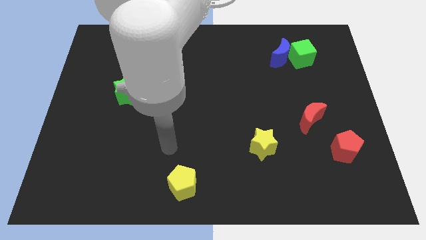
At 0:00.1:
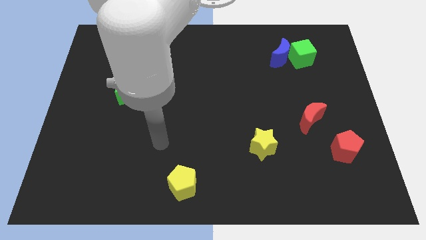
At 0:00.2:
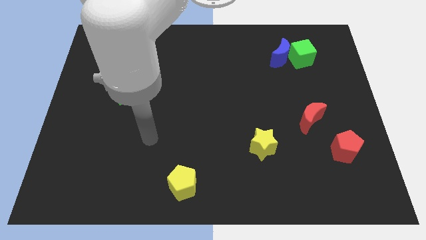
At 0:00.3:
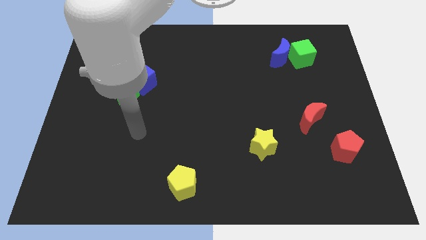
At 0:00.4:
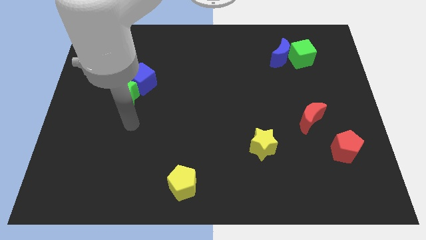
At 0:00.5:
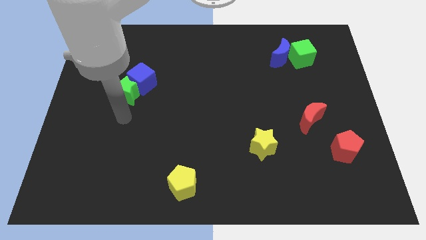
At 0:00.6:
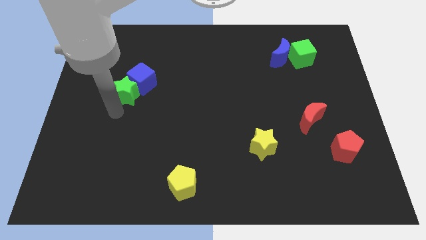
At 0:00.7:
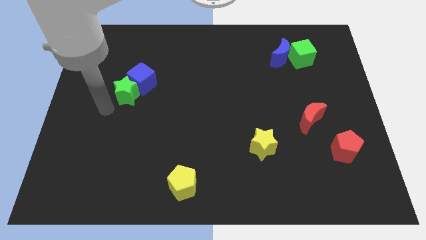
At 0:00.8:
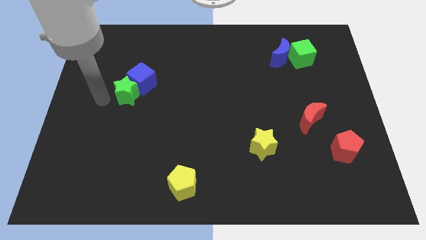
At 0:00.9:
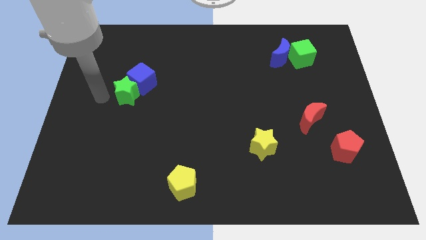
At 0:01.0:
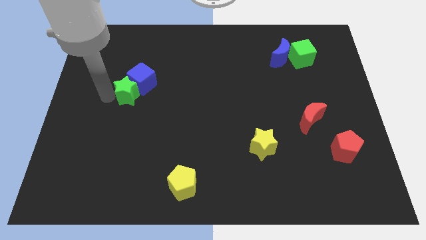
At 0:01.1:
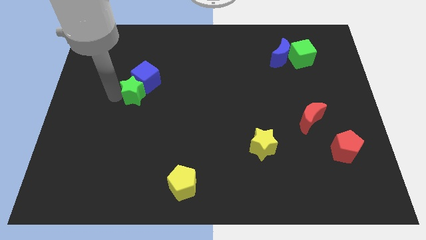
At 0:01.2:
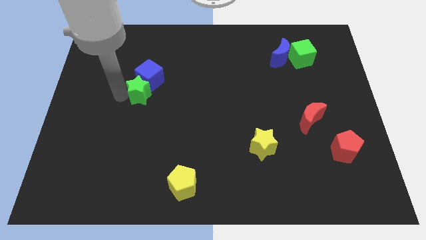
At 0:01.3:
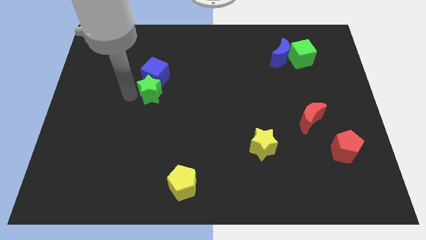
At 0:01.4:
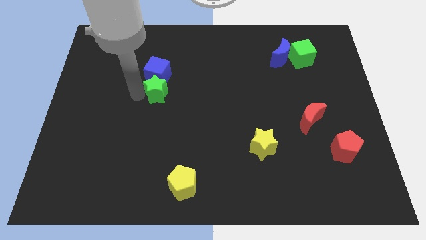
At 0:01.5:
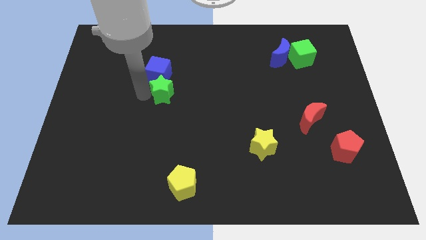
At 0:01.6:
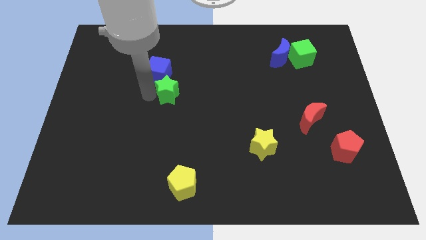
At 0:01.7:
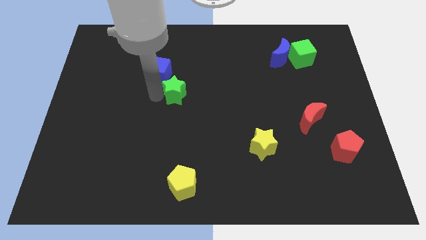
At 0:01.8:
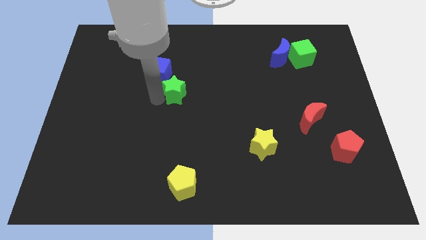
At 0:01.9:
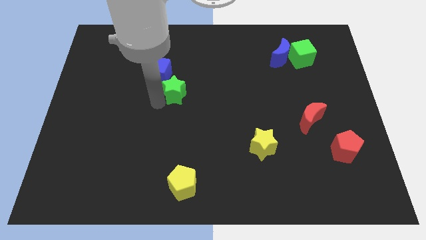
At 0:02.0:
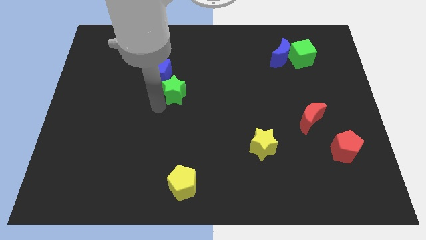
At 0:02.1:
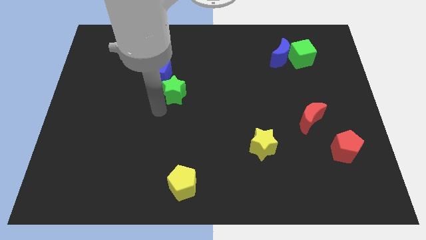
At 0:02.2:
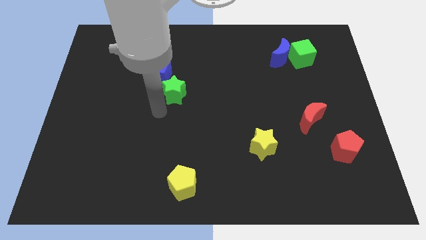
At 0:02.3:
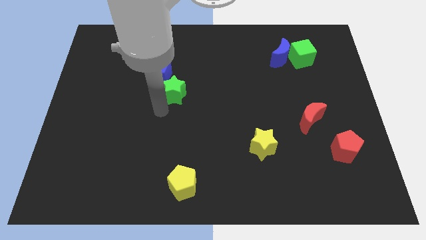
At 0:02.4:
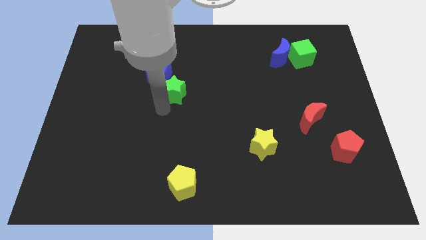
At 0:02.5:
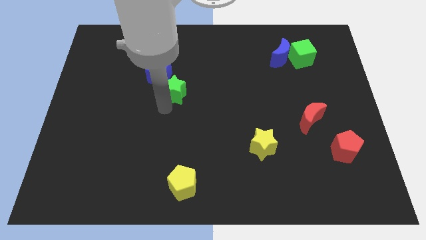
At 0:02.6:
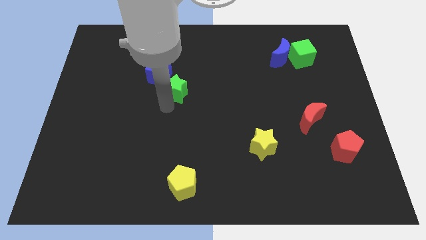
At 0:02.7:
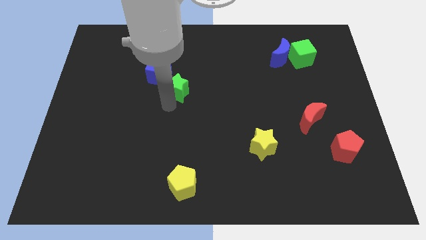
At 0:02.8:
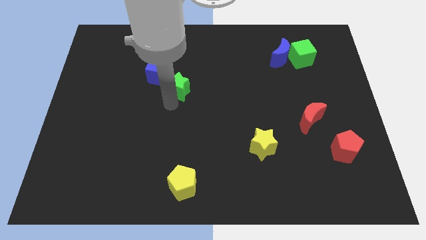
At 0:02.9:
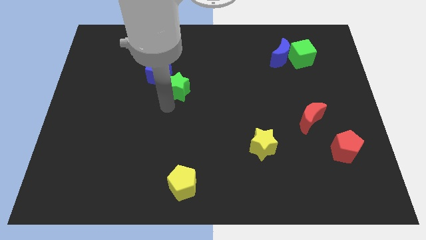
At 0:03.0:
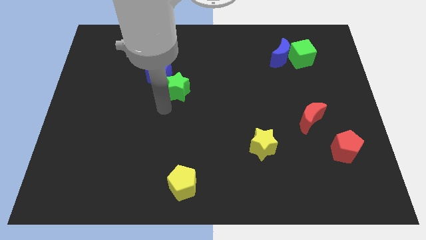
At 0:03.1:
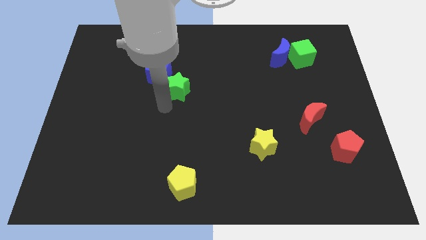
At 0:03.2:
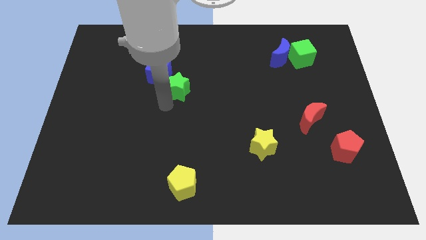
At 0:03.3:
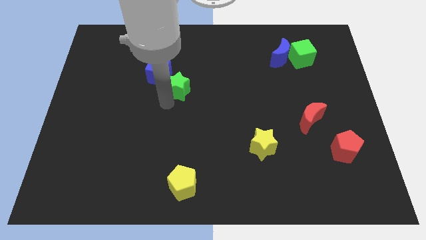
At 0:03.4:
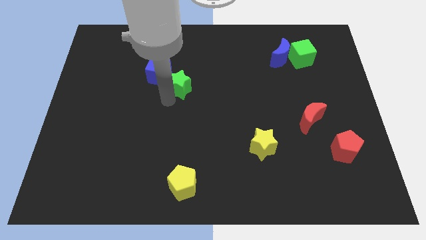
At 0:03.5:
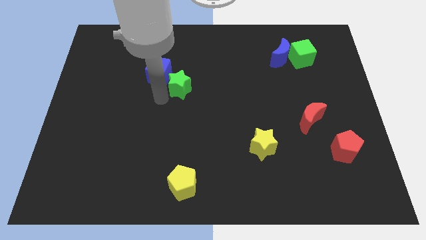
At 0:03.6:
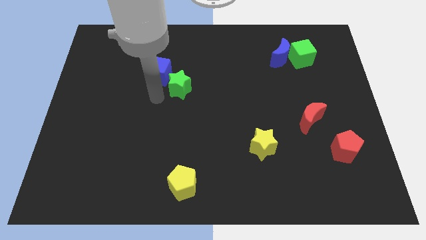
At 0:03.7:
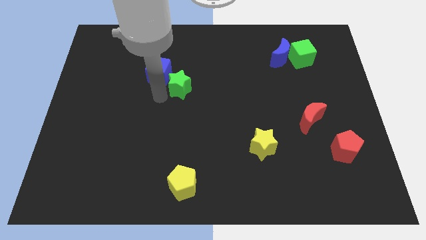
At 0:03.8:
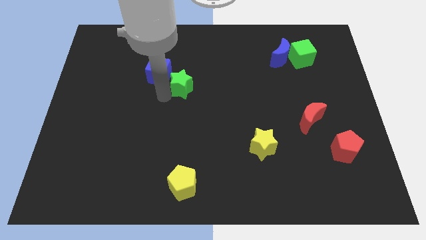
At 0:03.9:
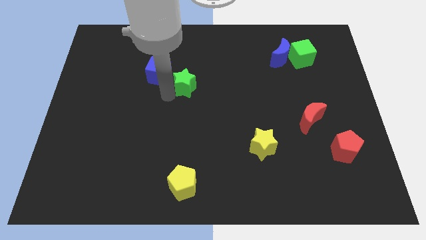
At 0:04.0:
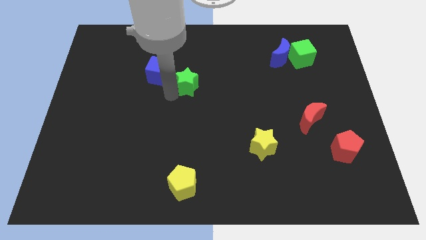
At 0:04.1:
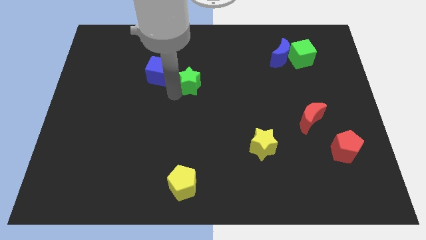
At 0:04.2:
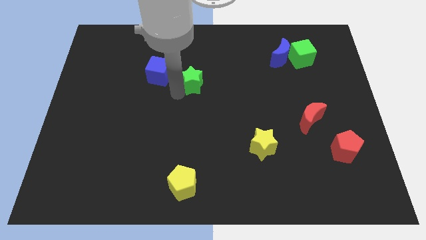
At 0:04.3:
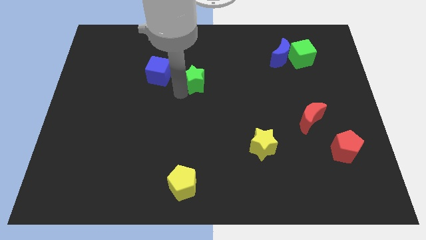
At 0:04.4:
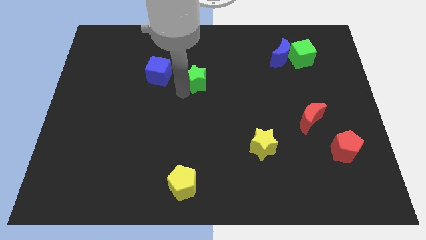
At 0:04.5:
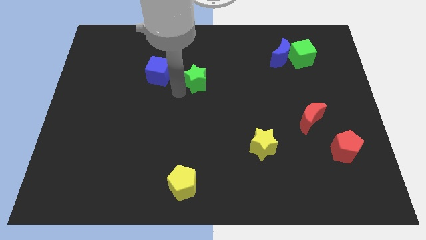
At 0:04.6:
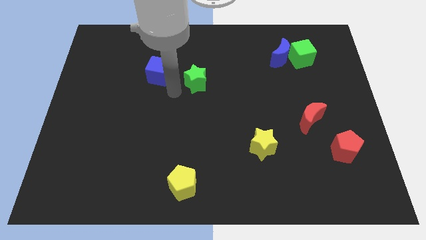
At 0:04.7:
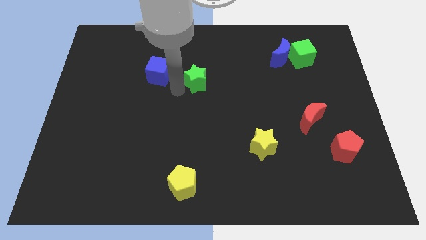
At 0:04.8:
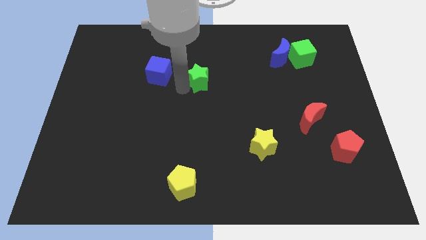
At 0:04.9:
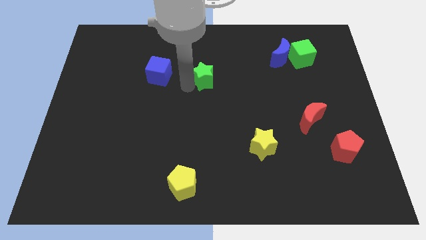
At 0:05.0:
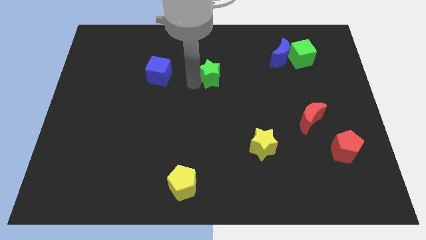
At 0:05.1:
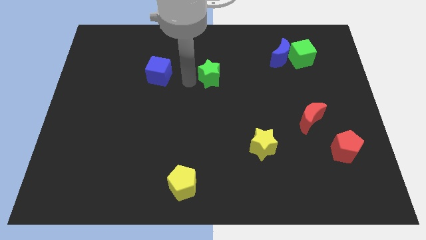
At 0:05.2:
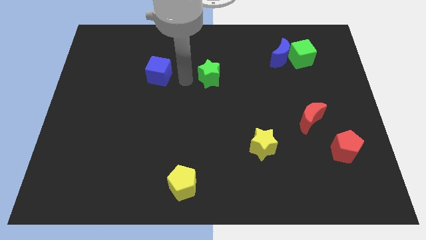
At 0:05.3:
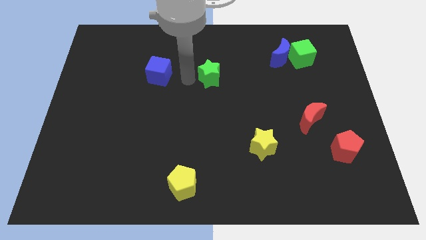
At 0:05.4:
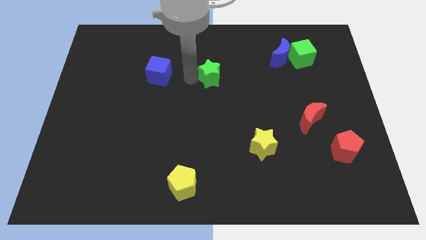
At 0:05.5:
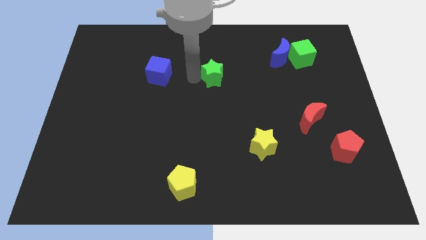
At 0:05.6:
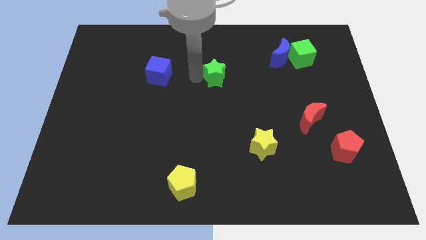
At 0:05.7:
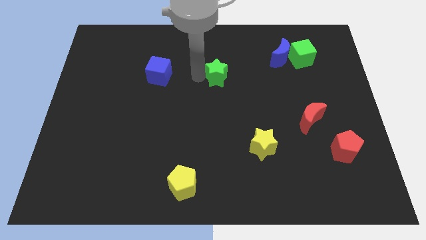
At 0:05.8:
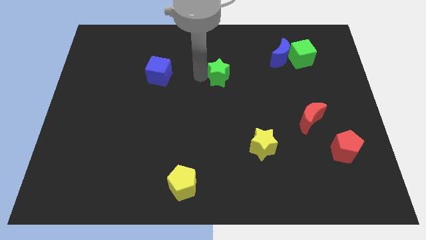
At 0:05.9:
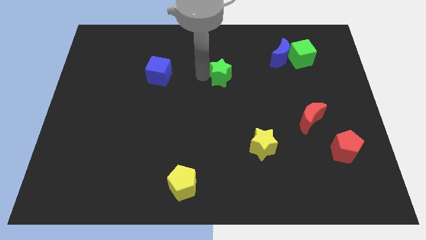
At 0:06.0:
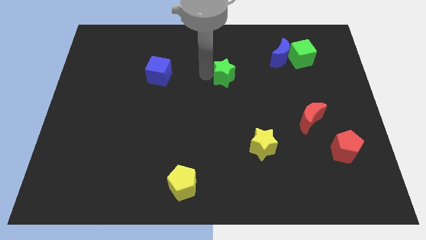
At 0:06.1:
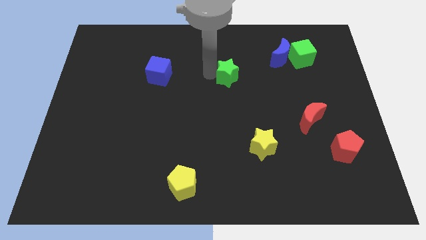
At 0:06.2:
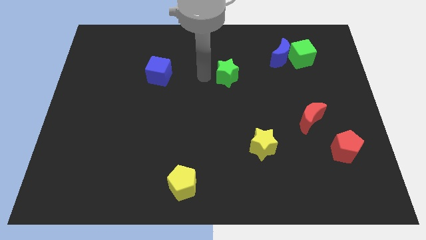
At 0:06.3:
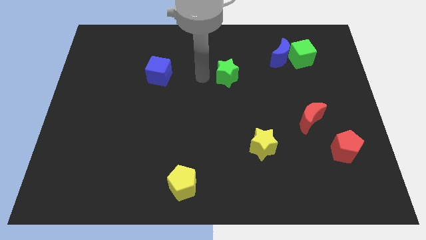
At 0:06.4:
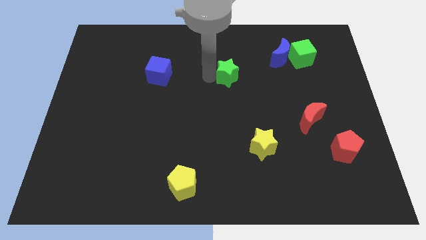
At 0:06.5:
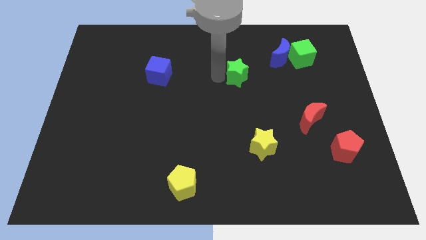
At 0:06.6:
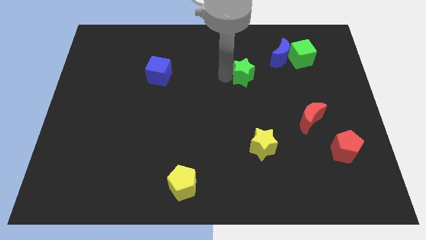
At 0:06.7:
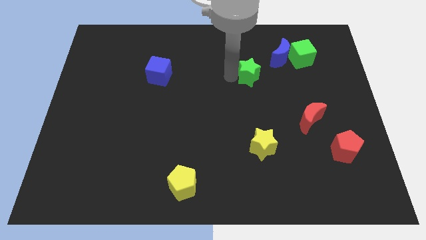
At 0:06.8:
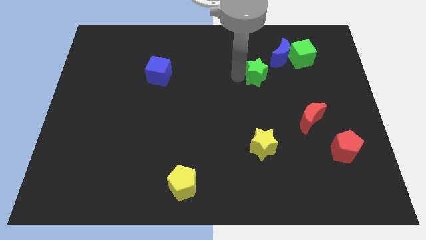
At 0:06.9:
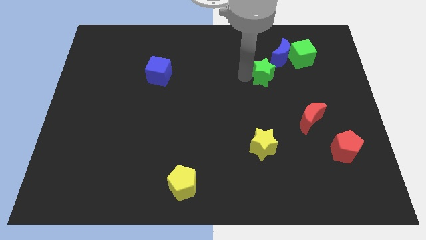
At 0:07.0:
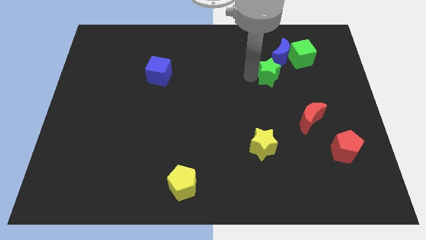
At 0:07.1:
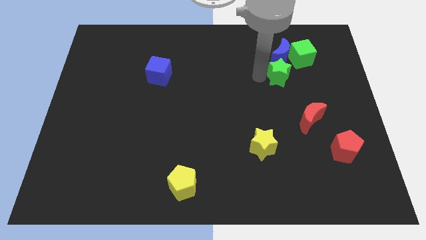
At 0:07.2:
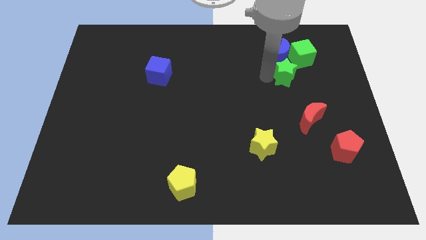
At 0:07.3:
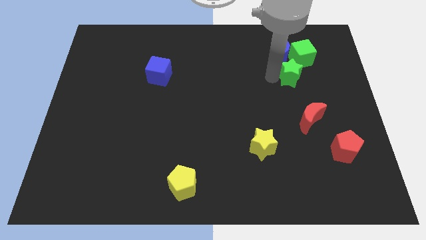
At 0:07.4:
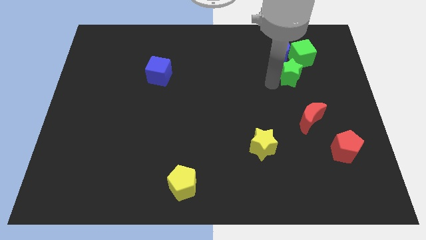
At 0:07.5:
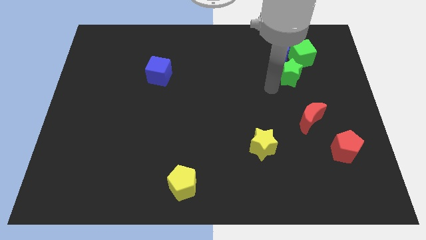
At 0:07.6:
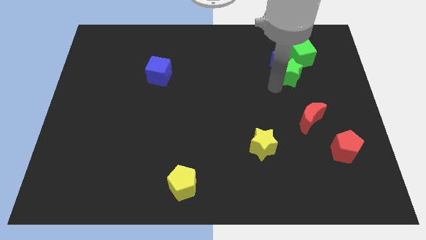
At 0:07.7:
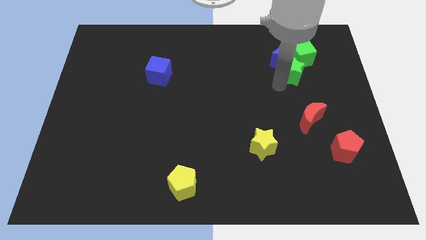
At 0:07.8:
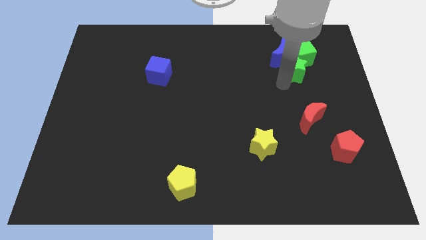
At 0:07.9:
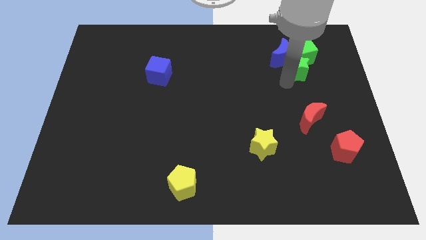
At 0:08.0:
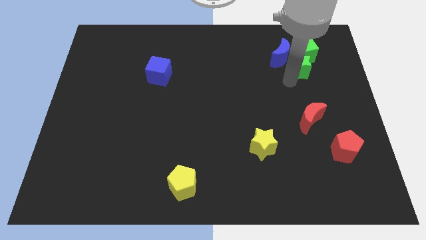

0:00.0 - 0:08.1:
slide the green star to the right side of the blue moon
